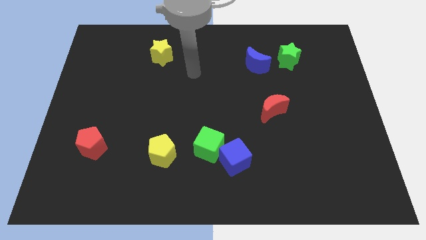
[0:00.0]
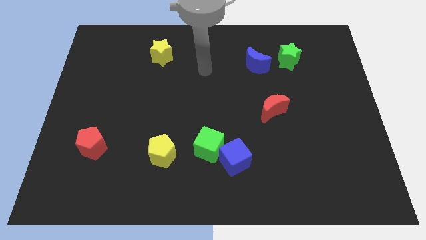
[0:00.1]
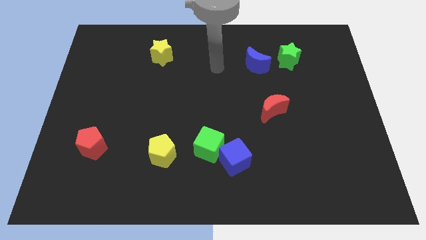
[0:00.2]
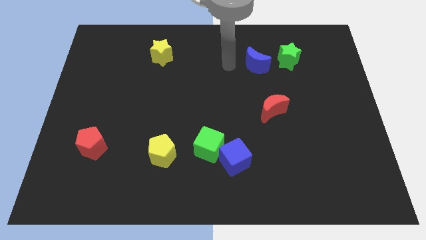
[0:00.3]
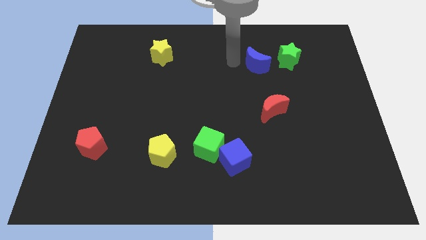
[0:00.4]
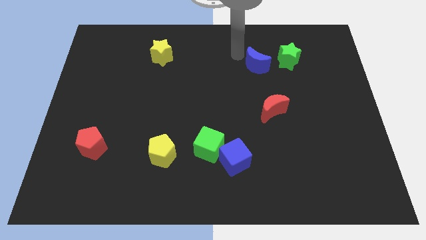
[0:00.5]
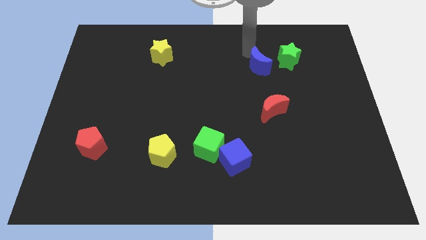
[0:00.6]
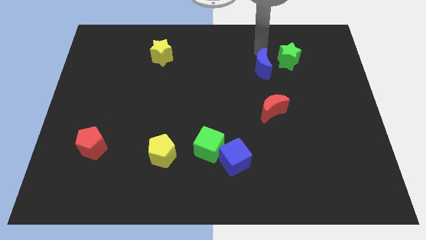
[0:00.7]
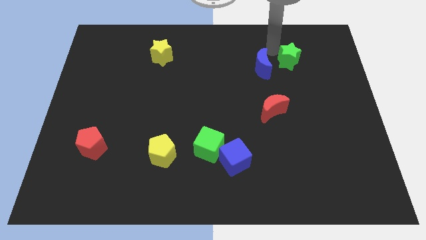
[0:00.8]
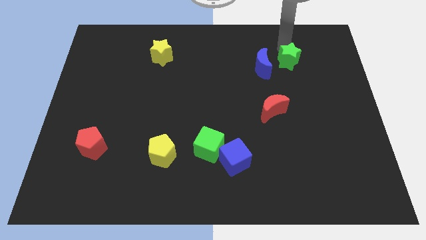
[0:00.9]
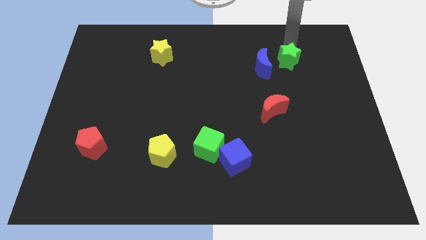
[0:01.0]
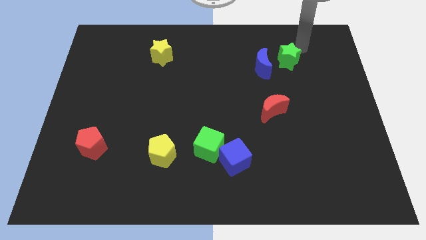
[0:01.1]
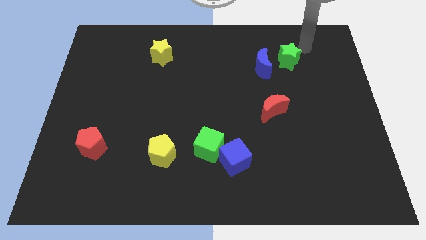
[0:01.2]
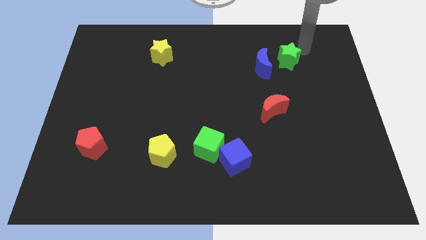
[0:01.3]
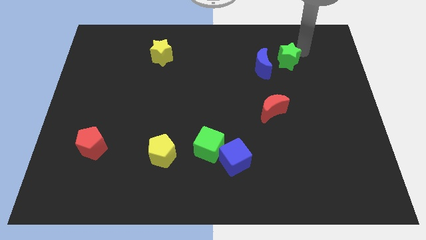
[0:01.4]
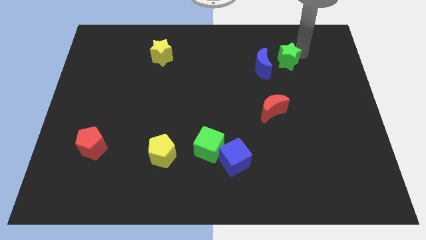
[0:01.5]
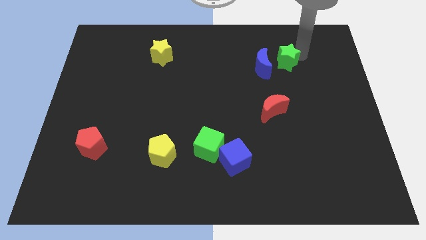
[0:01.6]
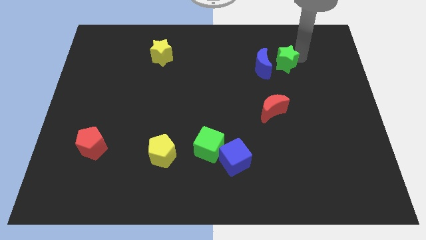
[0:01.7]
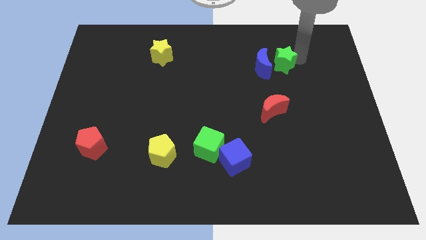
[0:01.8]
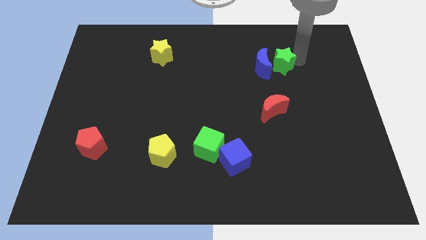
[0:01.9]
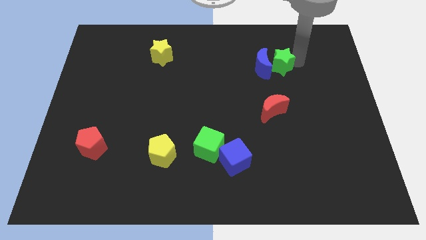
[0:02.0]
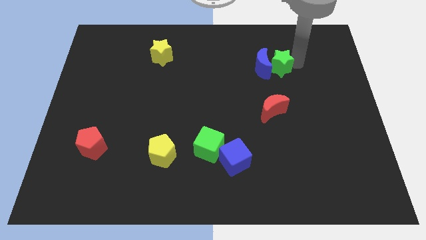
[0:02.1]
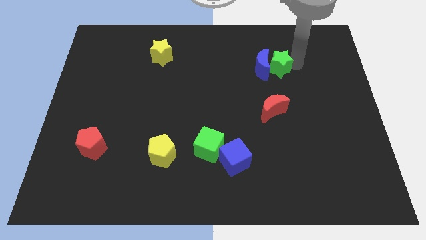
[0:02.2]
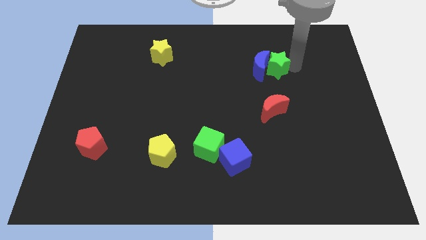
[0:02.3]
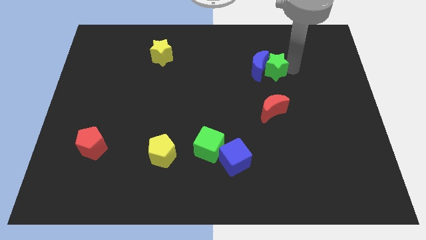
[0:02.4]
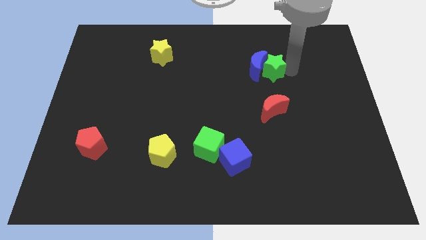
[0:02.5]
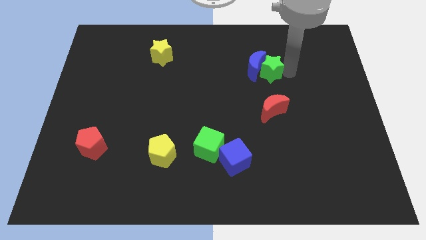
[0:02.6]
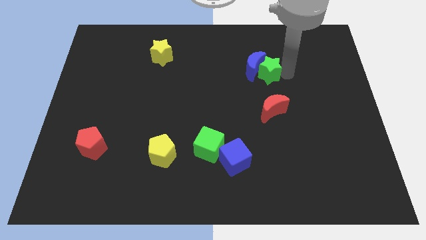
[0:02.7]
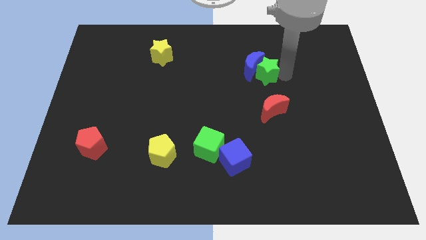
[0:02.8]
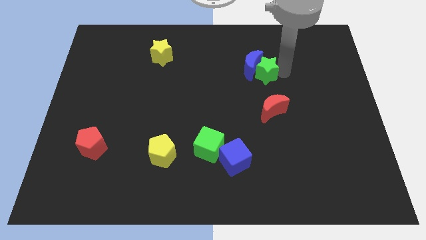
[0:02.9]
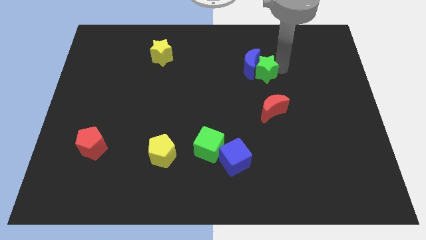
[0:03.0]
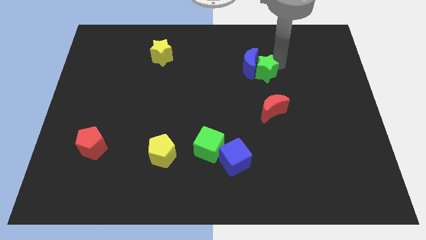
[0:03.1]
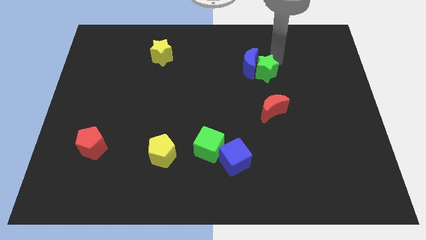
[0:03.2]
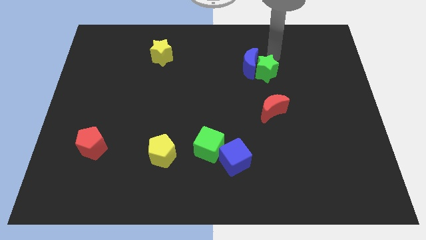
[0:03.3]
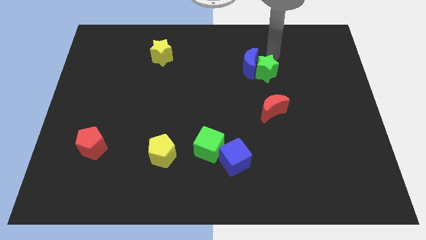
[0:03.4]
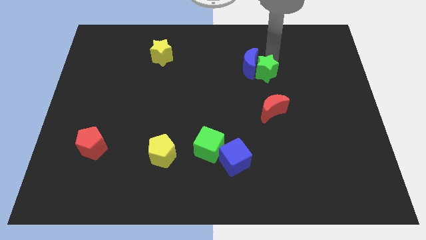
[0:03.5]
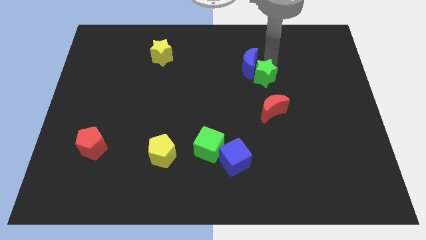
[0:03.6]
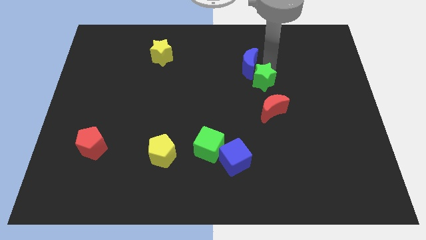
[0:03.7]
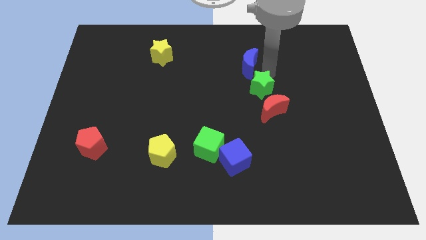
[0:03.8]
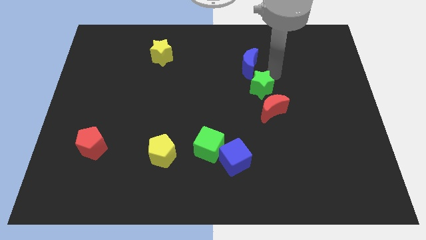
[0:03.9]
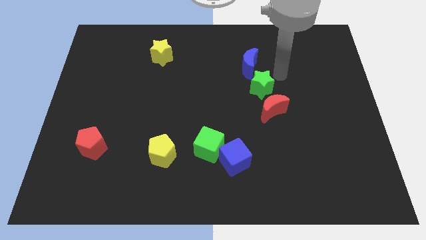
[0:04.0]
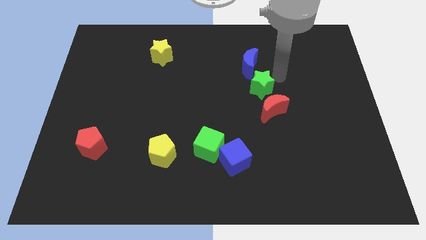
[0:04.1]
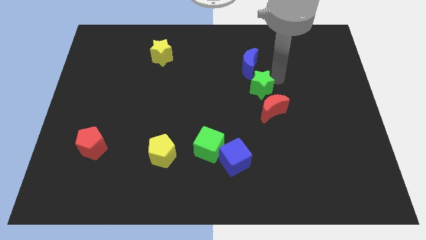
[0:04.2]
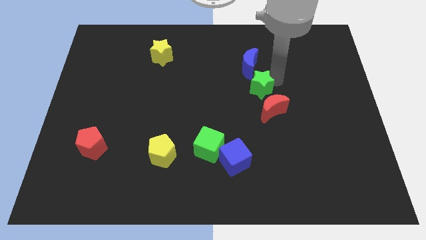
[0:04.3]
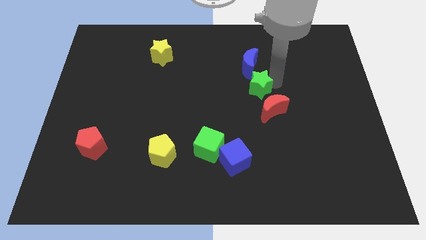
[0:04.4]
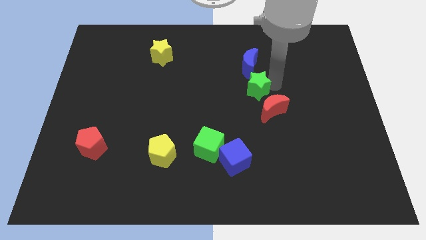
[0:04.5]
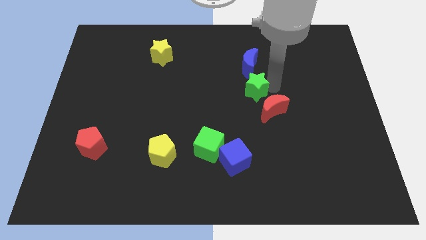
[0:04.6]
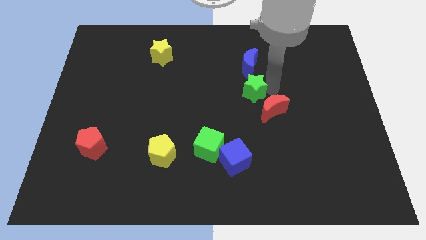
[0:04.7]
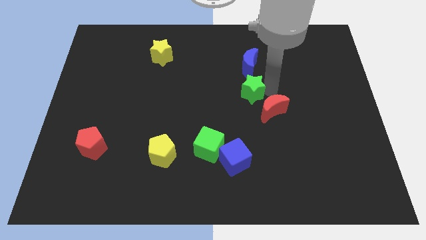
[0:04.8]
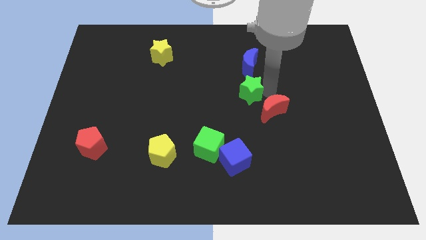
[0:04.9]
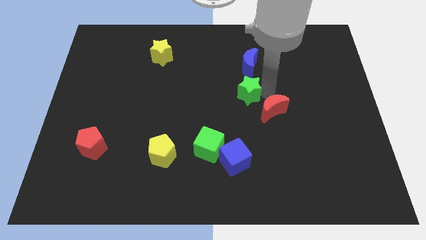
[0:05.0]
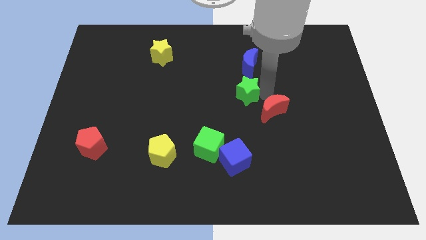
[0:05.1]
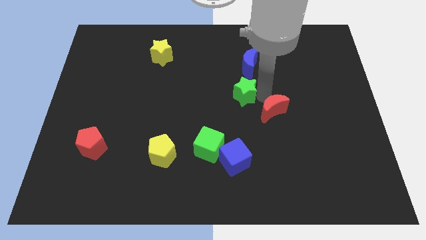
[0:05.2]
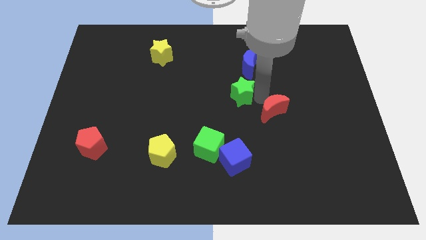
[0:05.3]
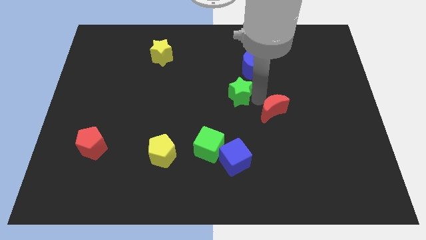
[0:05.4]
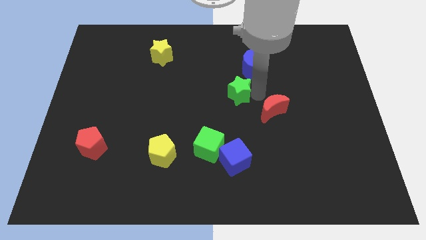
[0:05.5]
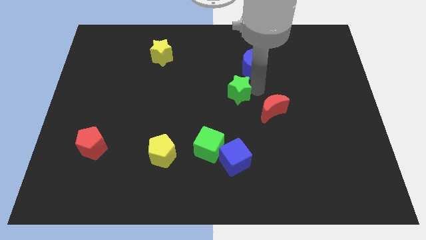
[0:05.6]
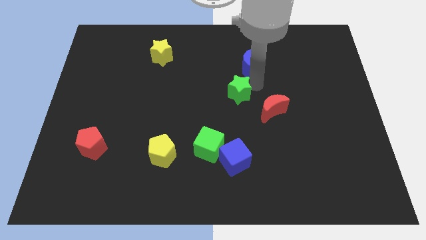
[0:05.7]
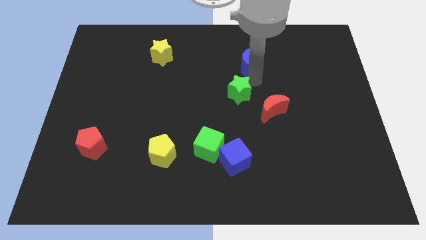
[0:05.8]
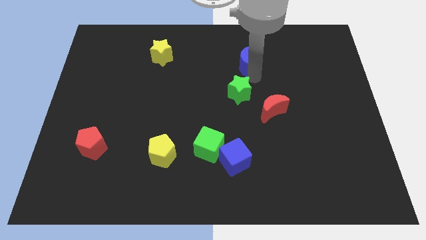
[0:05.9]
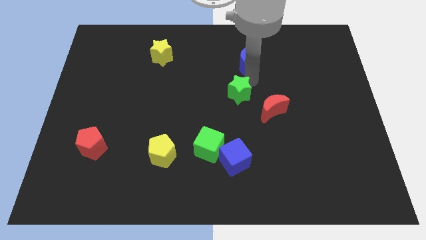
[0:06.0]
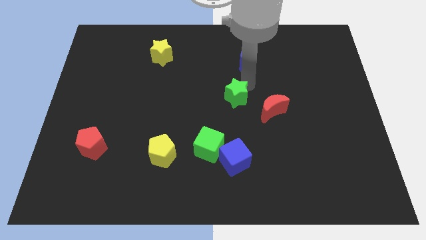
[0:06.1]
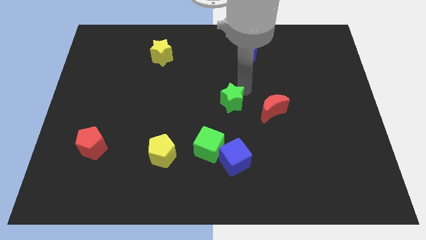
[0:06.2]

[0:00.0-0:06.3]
move the green star downwards and to the left

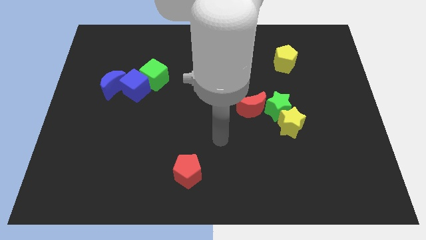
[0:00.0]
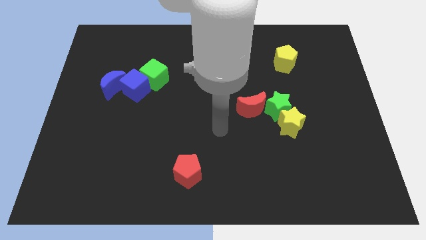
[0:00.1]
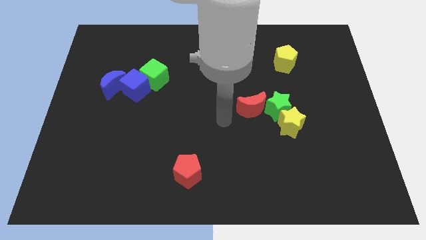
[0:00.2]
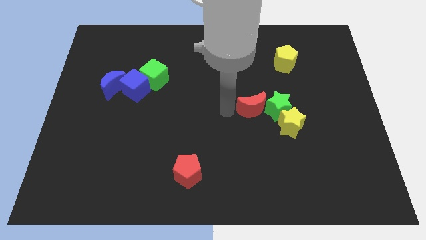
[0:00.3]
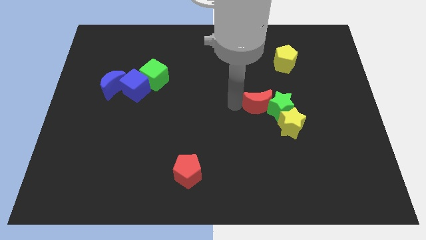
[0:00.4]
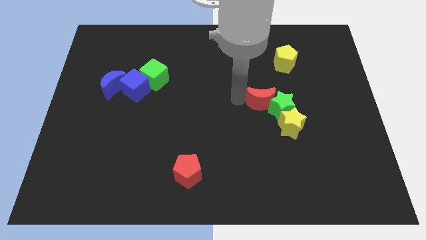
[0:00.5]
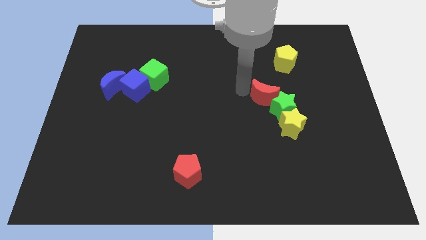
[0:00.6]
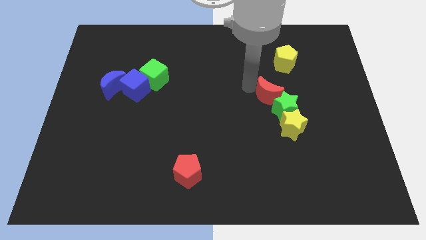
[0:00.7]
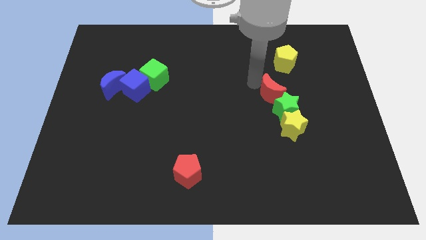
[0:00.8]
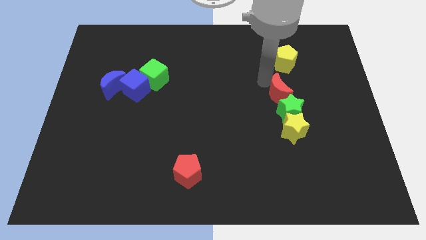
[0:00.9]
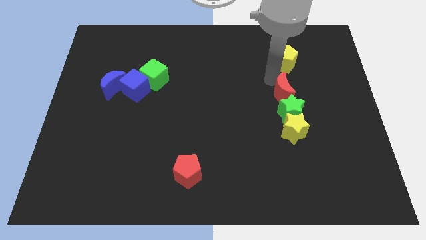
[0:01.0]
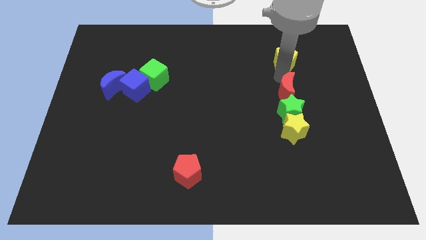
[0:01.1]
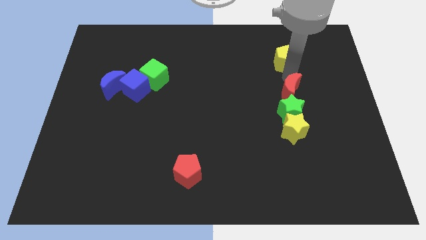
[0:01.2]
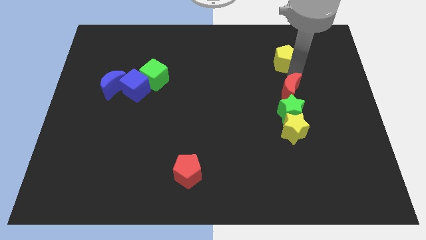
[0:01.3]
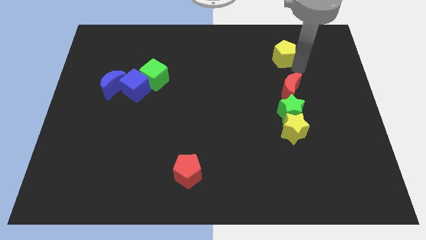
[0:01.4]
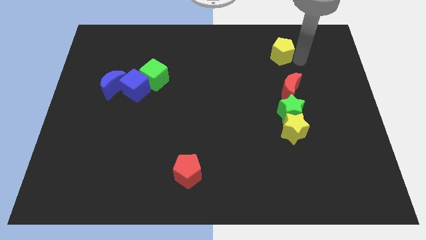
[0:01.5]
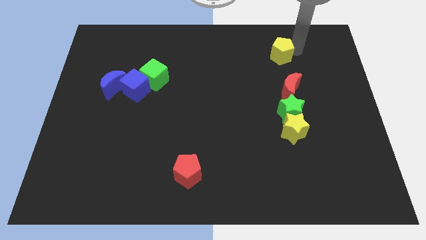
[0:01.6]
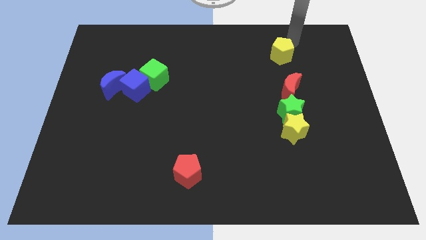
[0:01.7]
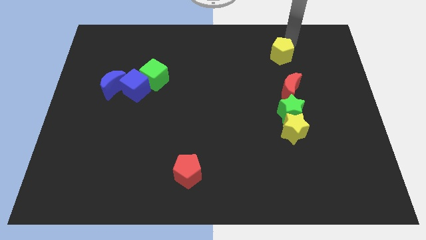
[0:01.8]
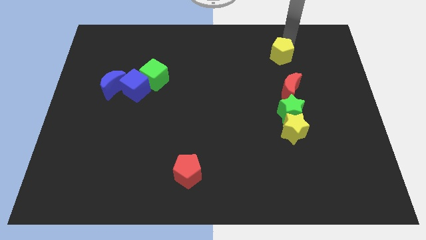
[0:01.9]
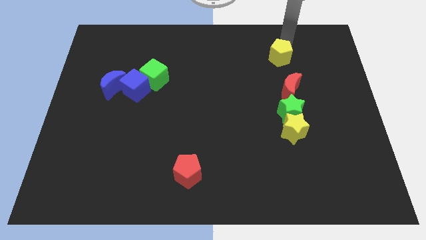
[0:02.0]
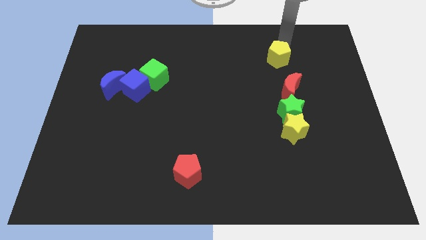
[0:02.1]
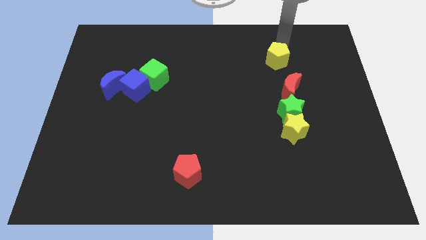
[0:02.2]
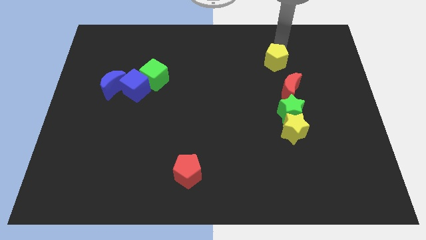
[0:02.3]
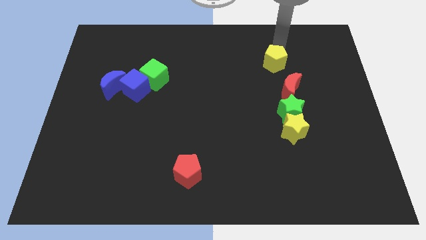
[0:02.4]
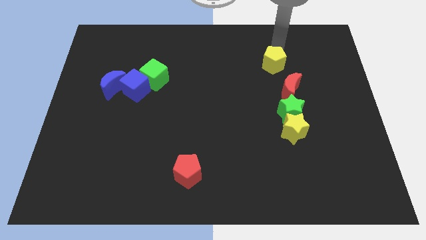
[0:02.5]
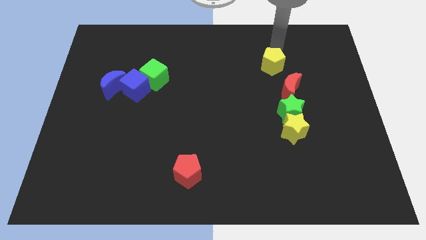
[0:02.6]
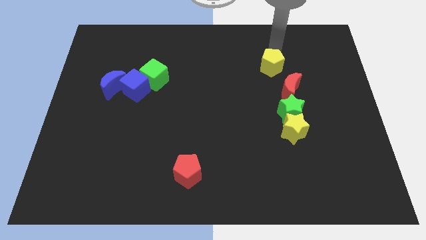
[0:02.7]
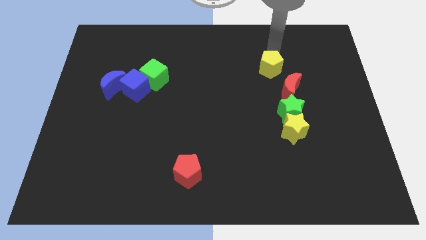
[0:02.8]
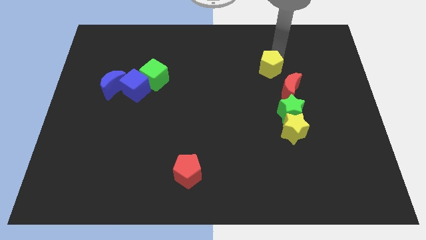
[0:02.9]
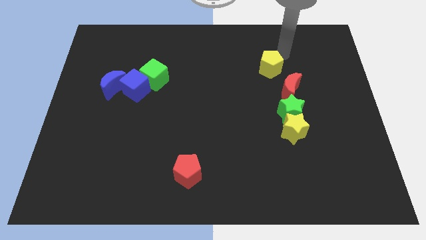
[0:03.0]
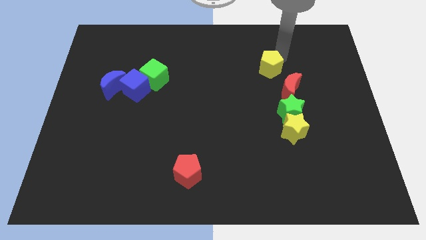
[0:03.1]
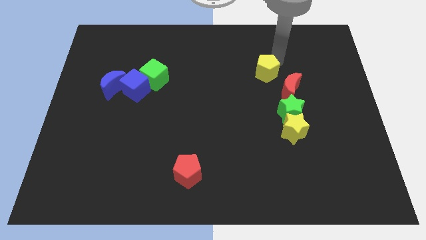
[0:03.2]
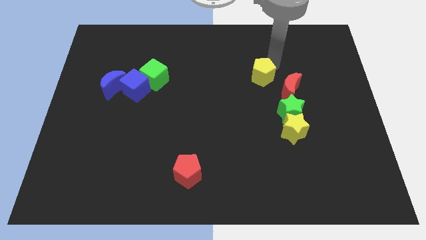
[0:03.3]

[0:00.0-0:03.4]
slightly slide the yellow pentagon downwards and to the left
